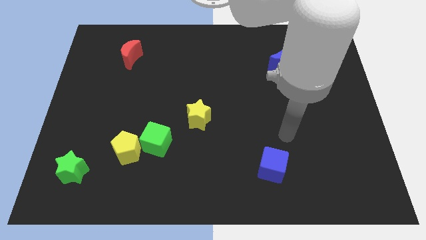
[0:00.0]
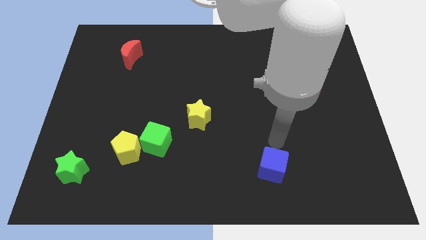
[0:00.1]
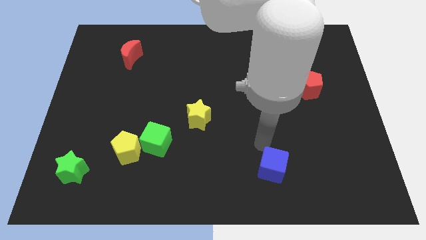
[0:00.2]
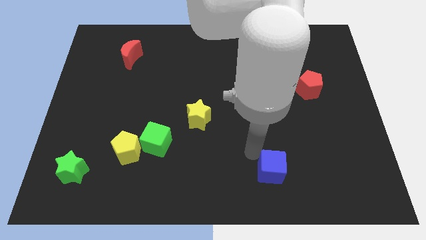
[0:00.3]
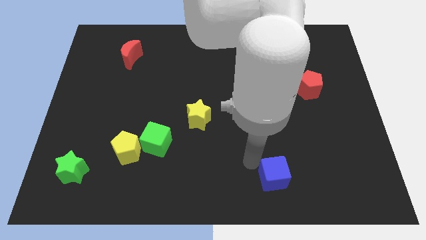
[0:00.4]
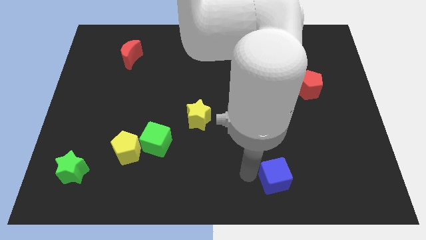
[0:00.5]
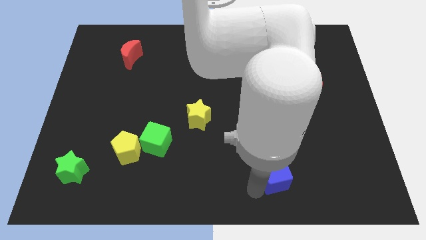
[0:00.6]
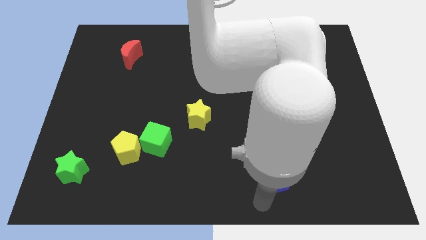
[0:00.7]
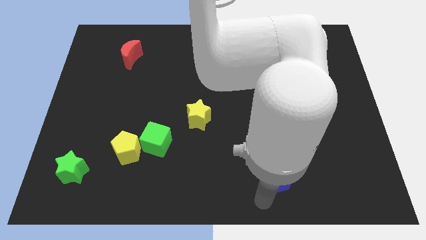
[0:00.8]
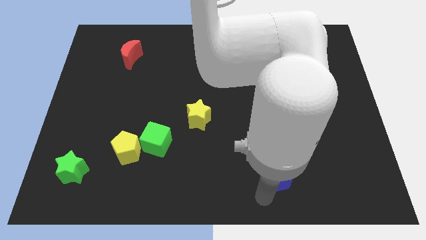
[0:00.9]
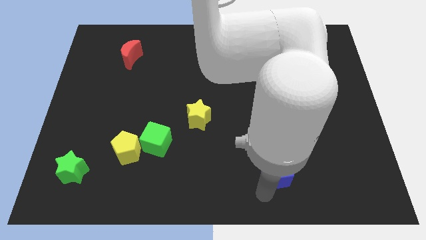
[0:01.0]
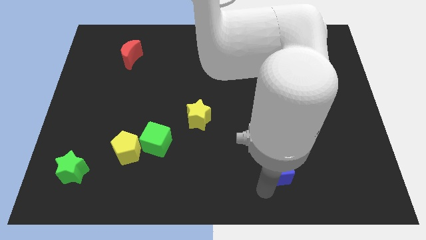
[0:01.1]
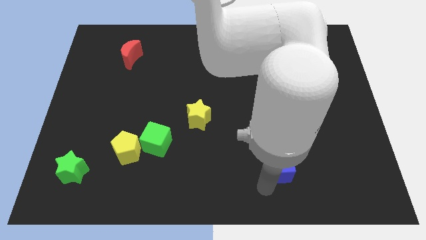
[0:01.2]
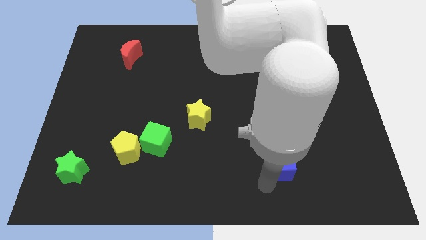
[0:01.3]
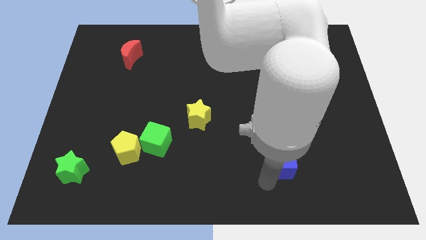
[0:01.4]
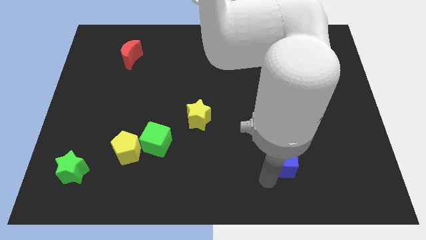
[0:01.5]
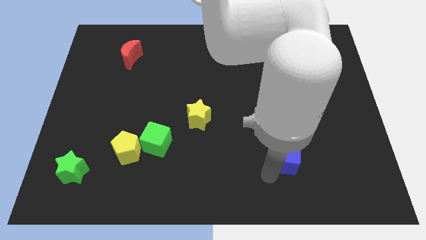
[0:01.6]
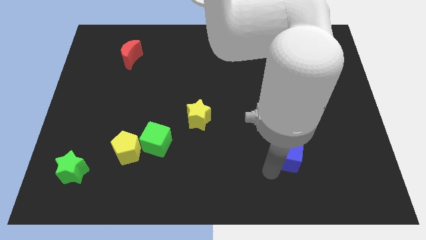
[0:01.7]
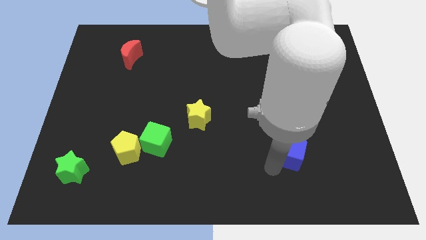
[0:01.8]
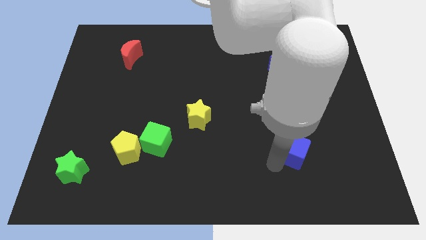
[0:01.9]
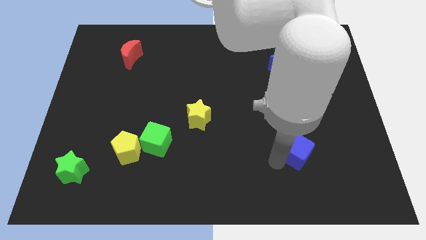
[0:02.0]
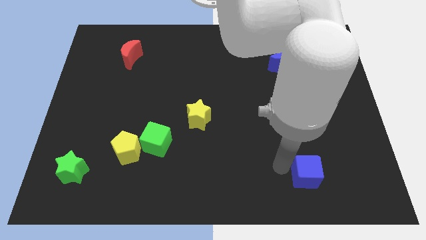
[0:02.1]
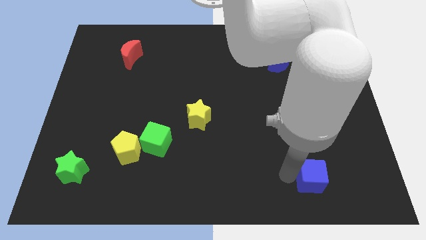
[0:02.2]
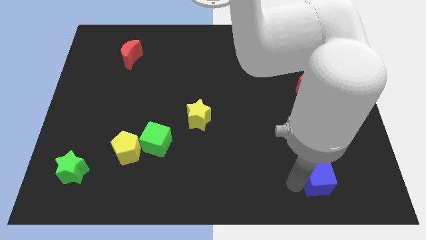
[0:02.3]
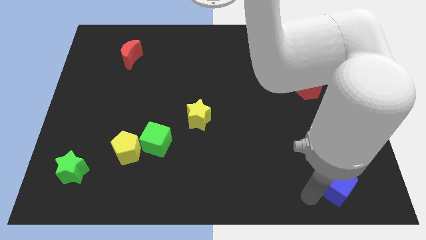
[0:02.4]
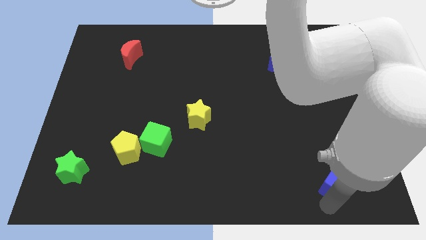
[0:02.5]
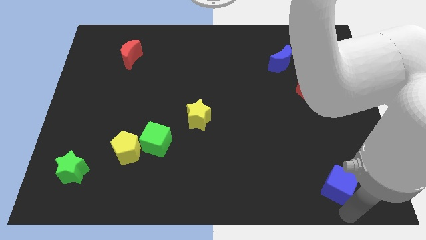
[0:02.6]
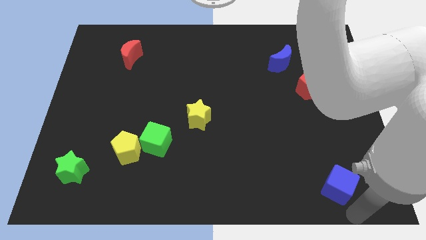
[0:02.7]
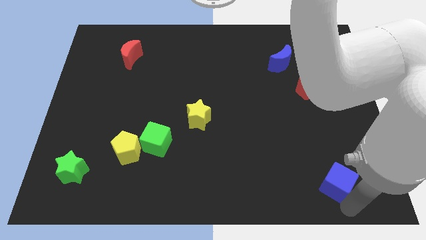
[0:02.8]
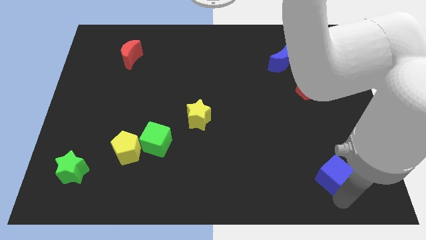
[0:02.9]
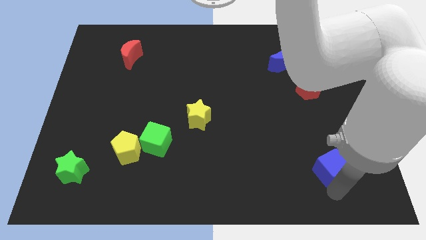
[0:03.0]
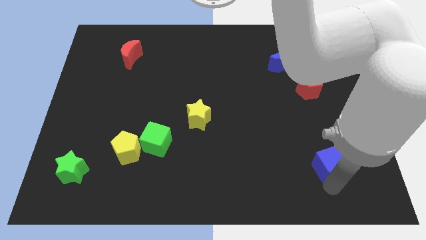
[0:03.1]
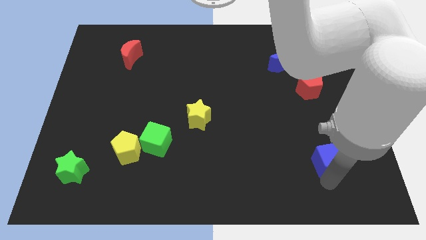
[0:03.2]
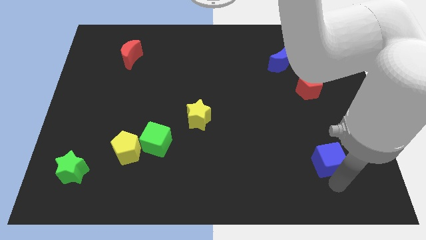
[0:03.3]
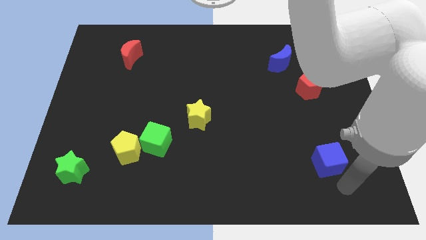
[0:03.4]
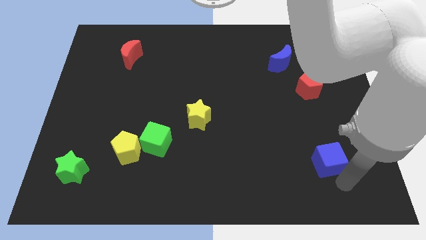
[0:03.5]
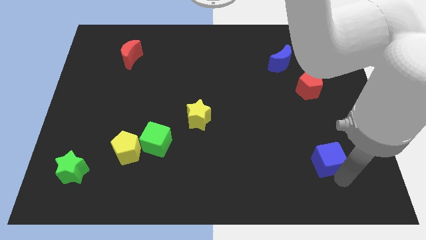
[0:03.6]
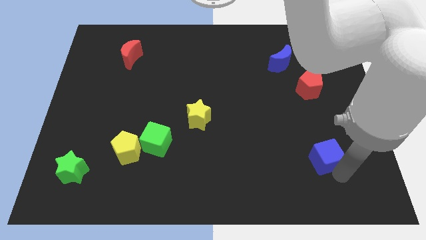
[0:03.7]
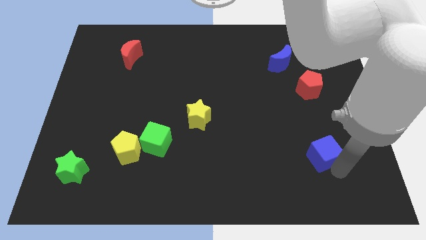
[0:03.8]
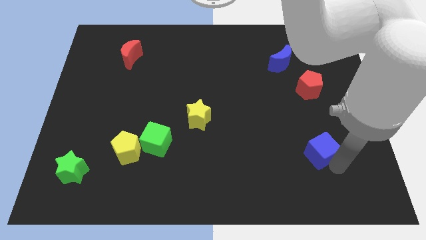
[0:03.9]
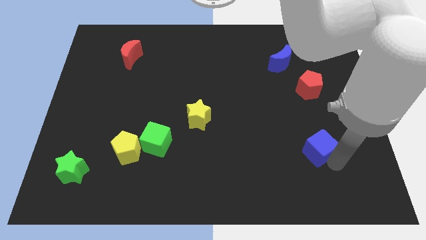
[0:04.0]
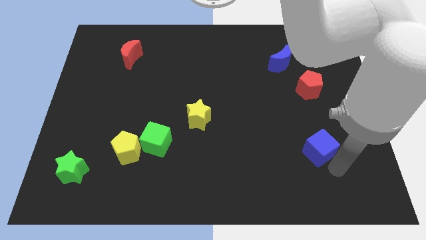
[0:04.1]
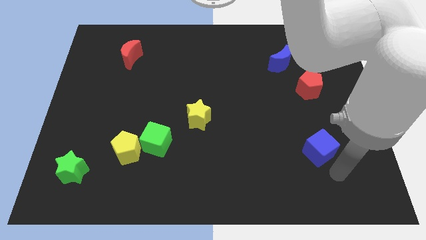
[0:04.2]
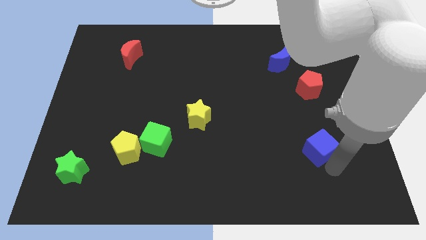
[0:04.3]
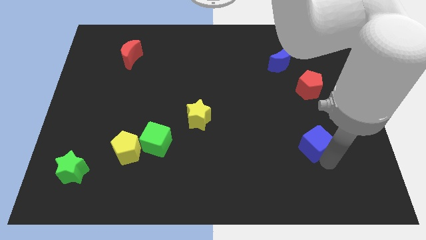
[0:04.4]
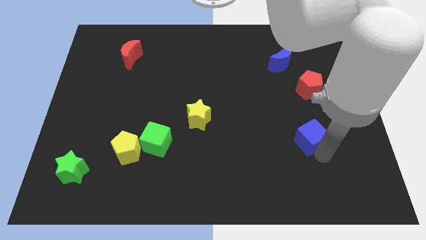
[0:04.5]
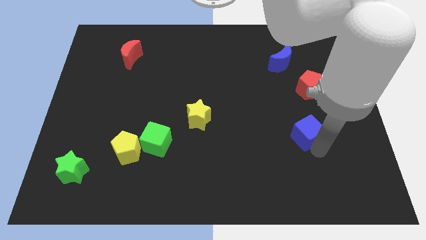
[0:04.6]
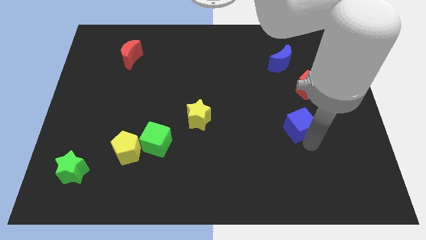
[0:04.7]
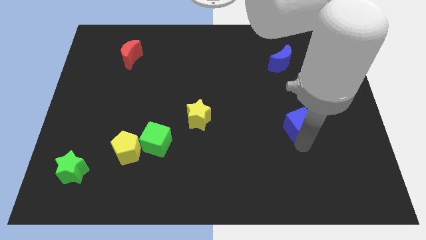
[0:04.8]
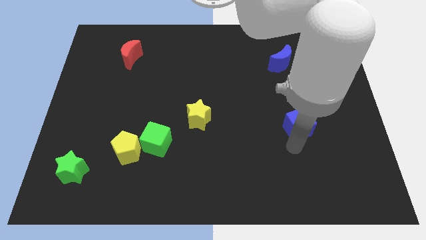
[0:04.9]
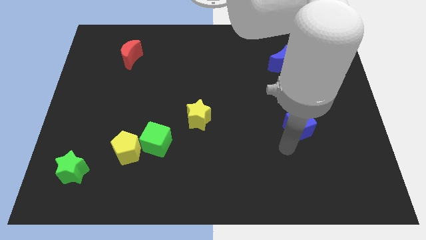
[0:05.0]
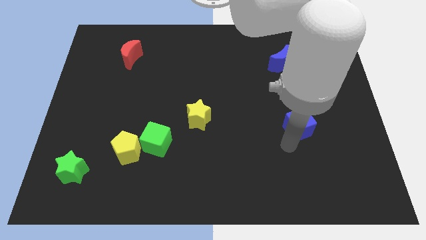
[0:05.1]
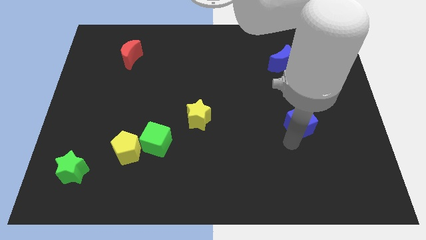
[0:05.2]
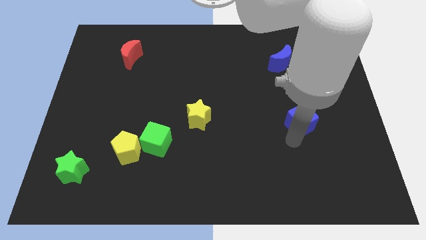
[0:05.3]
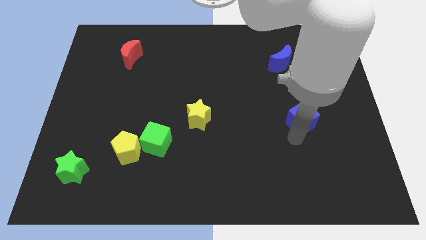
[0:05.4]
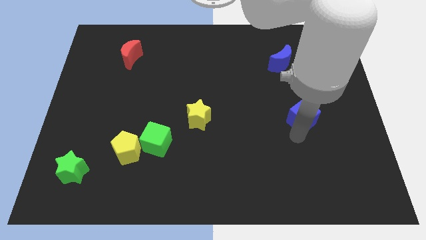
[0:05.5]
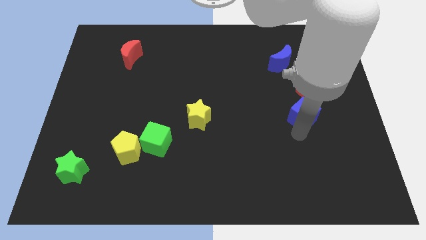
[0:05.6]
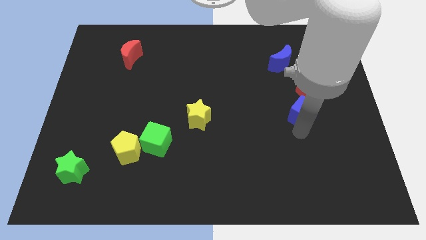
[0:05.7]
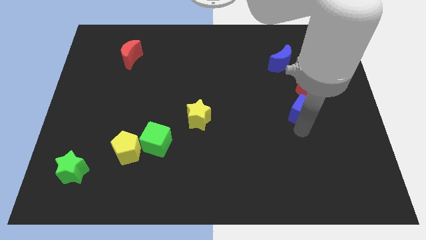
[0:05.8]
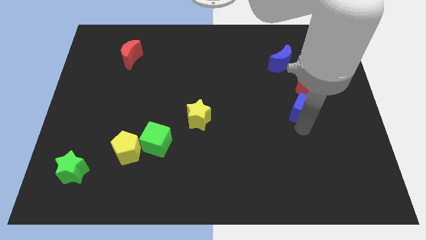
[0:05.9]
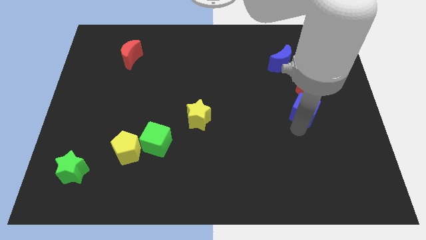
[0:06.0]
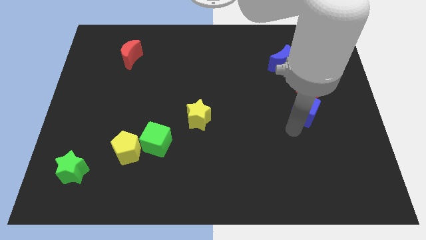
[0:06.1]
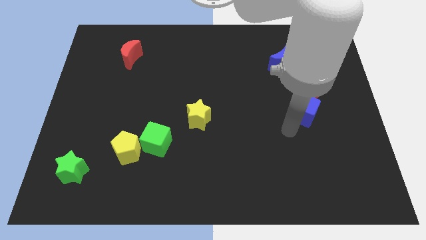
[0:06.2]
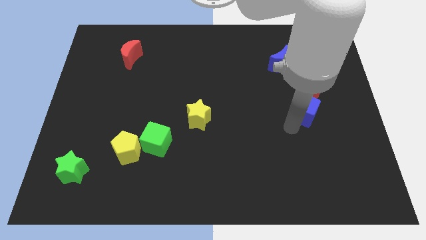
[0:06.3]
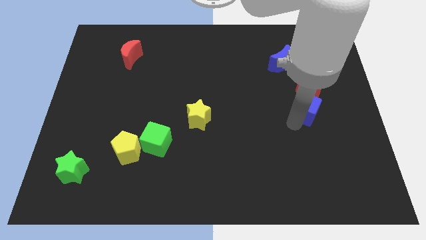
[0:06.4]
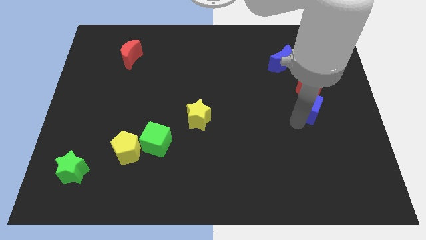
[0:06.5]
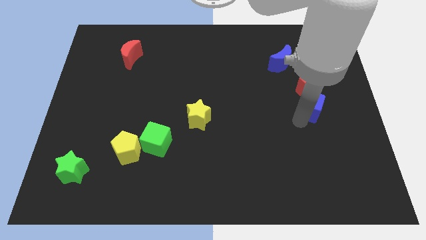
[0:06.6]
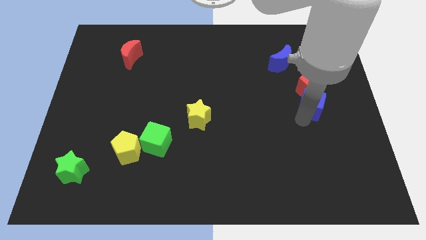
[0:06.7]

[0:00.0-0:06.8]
move the blue cube next to the red pentagon
